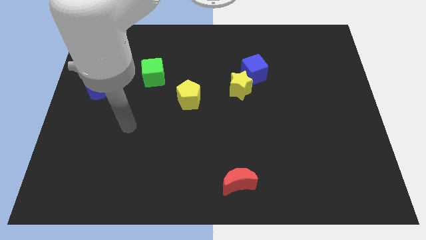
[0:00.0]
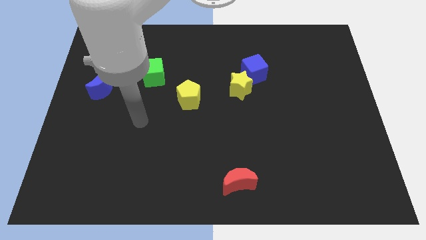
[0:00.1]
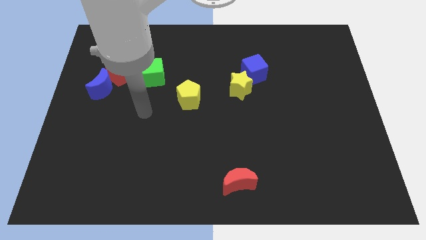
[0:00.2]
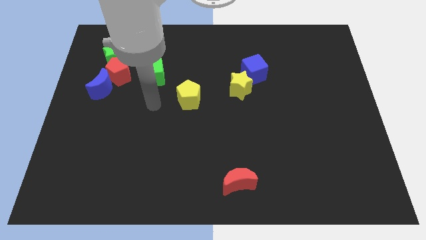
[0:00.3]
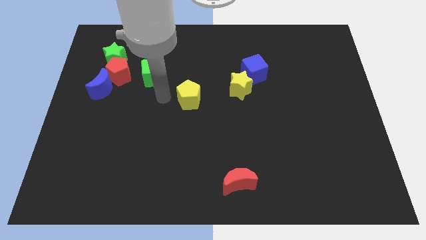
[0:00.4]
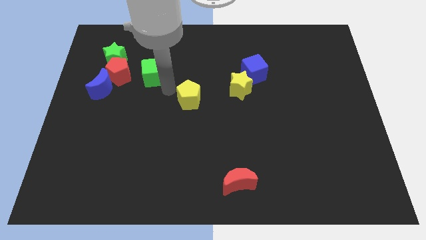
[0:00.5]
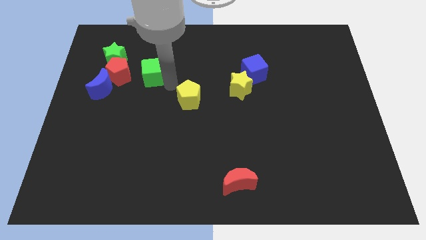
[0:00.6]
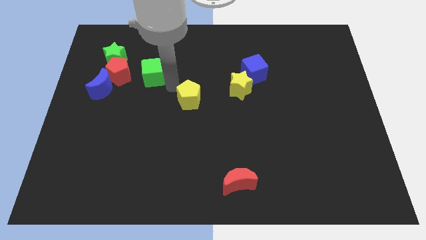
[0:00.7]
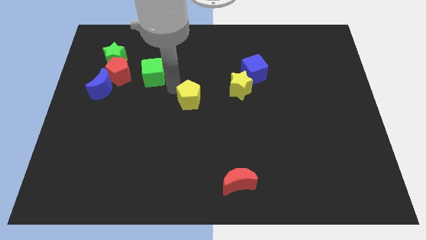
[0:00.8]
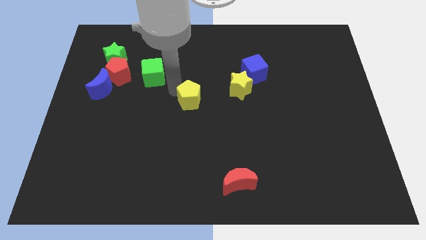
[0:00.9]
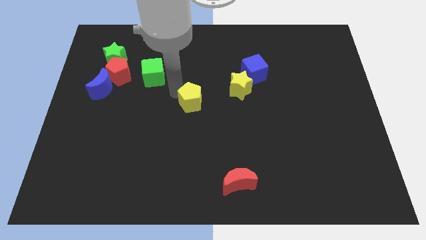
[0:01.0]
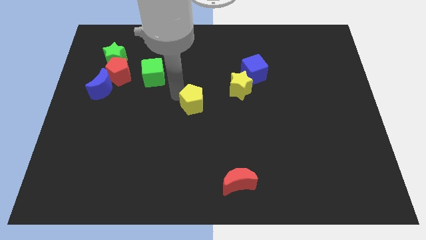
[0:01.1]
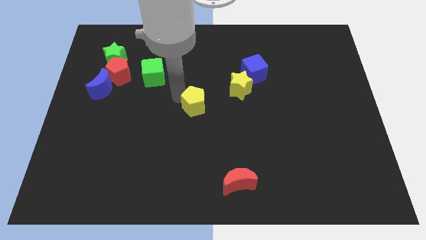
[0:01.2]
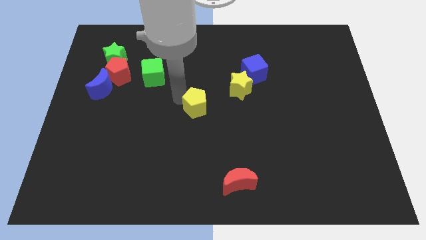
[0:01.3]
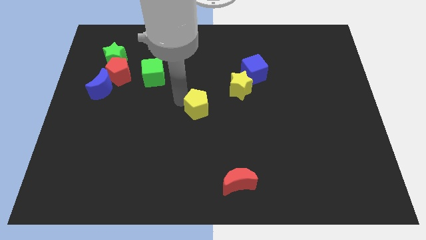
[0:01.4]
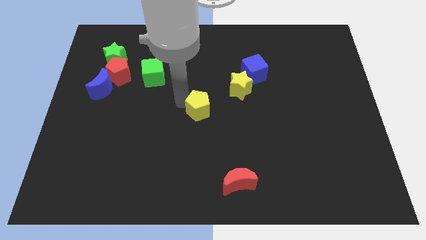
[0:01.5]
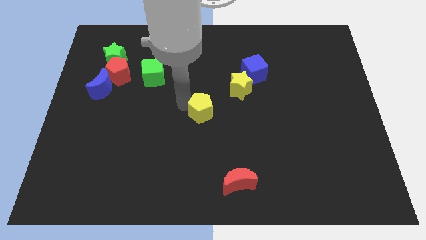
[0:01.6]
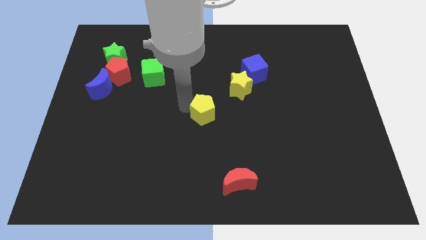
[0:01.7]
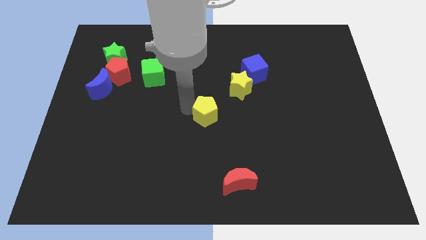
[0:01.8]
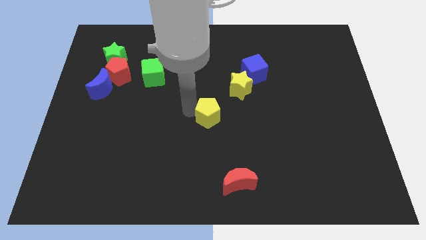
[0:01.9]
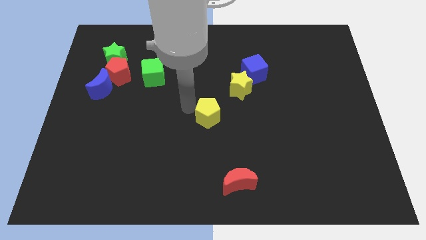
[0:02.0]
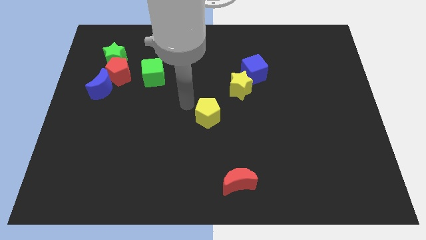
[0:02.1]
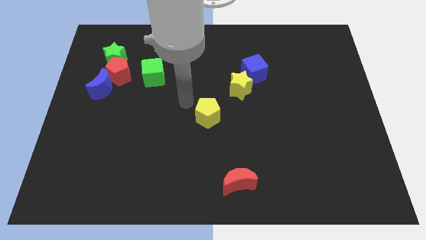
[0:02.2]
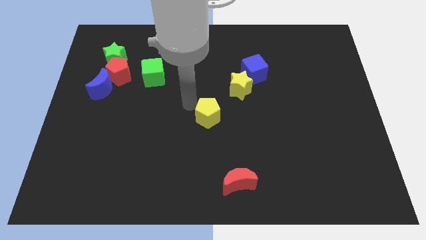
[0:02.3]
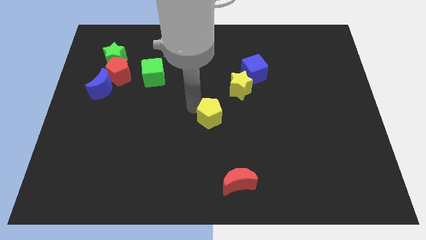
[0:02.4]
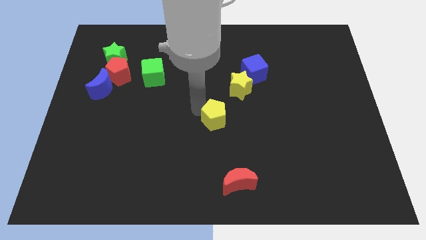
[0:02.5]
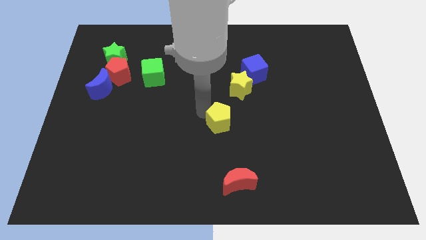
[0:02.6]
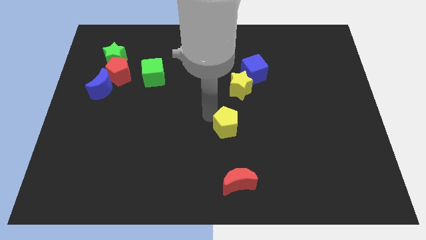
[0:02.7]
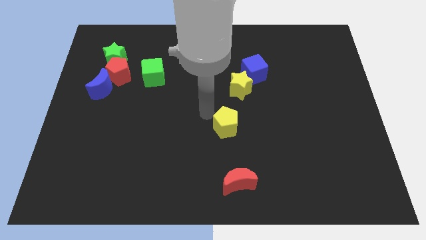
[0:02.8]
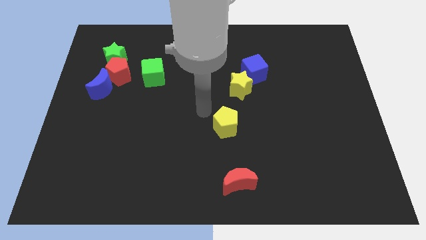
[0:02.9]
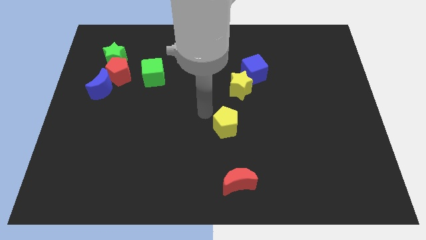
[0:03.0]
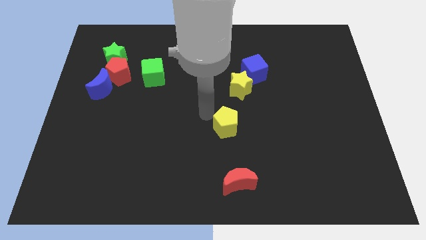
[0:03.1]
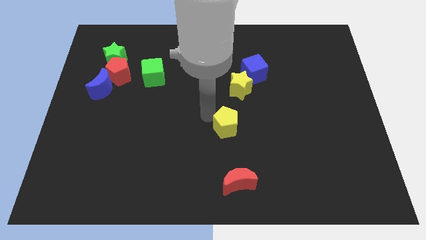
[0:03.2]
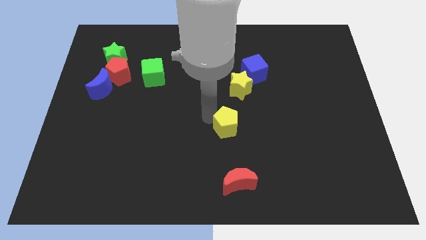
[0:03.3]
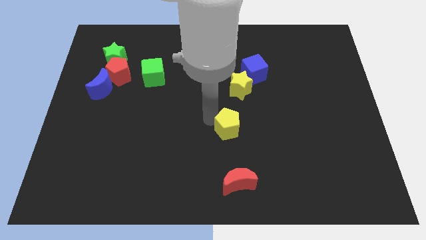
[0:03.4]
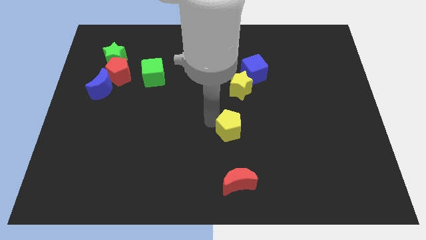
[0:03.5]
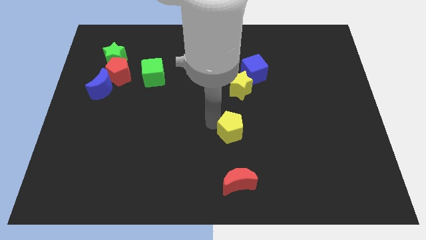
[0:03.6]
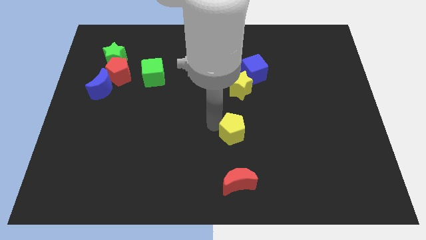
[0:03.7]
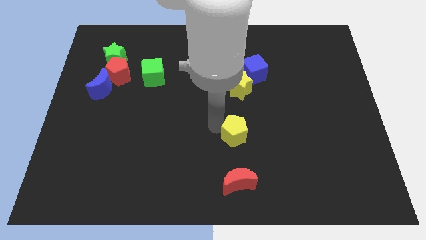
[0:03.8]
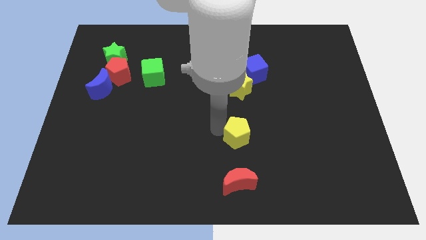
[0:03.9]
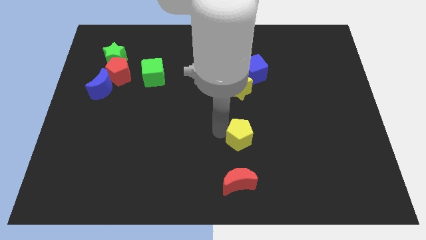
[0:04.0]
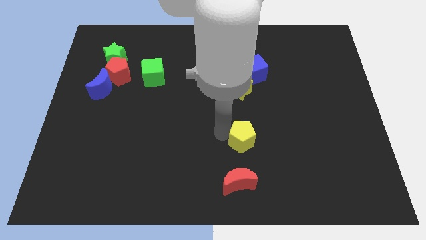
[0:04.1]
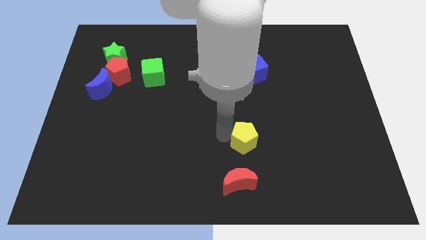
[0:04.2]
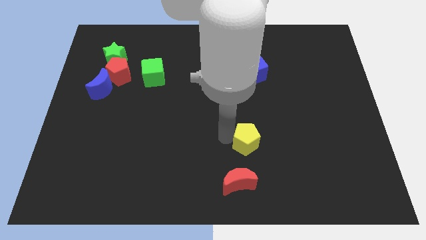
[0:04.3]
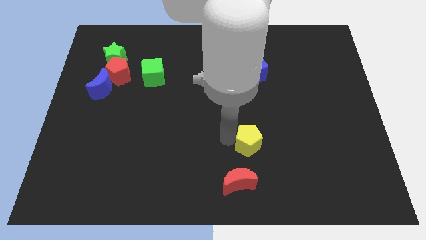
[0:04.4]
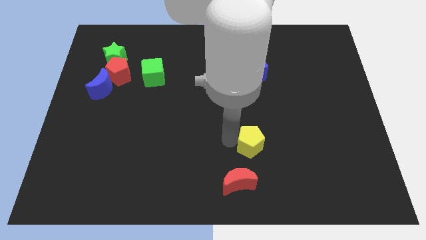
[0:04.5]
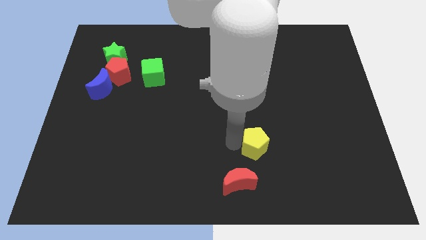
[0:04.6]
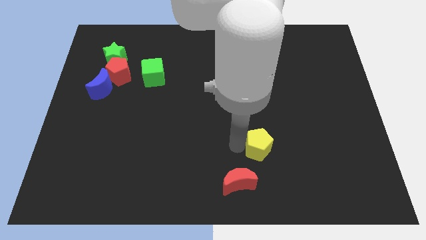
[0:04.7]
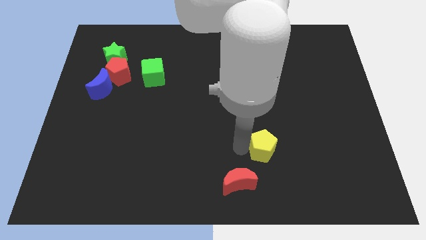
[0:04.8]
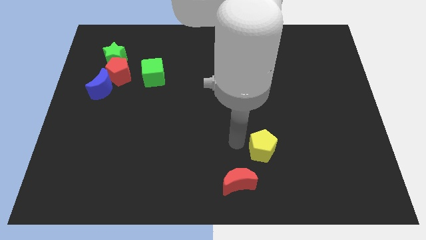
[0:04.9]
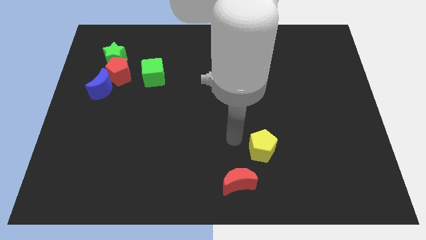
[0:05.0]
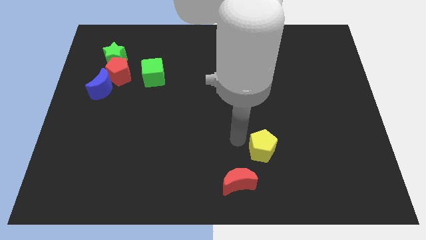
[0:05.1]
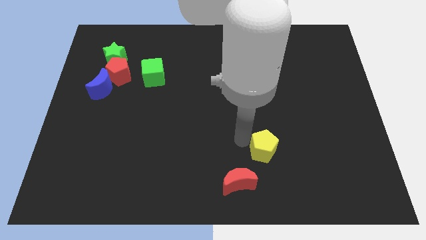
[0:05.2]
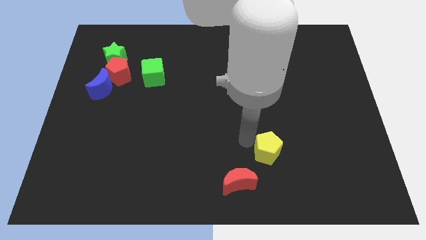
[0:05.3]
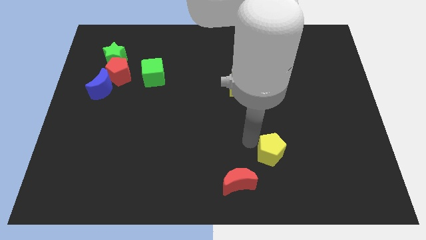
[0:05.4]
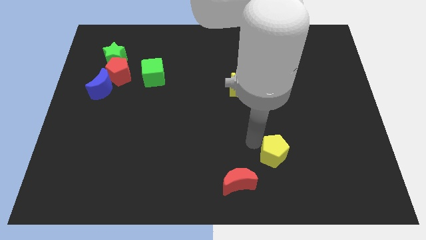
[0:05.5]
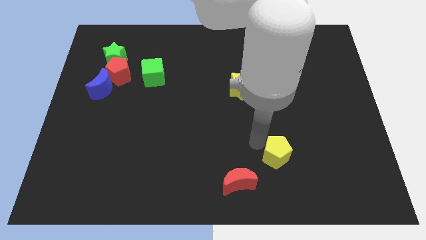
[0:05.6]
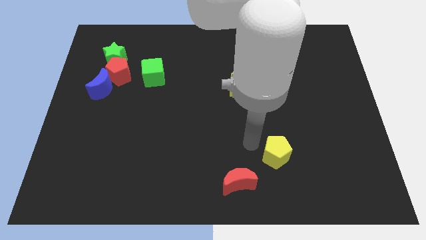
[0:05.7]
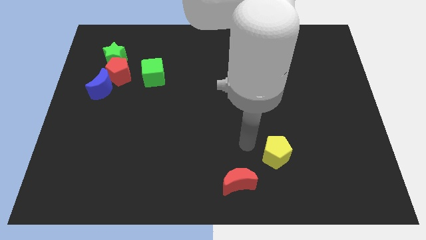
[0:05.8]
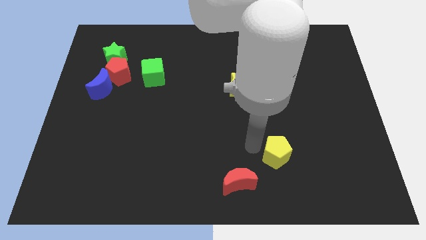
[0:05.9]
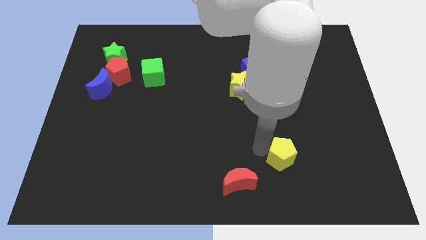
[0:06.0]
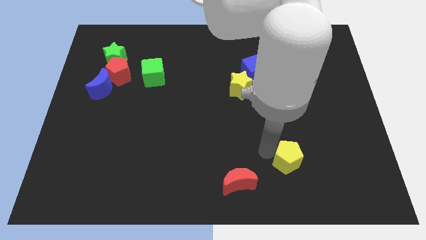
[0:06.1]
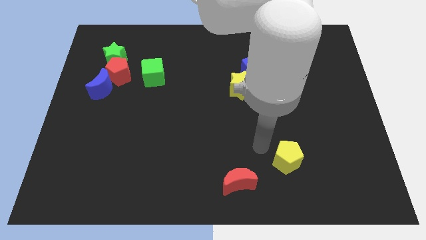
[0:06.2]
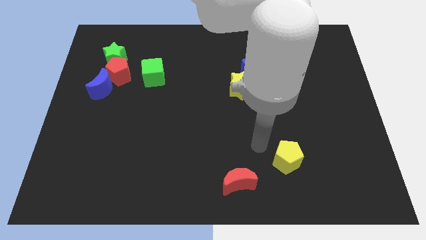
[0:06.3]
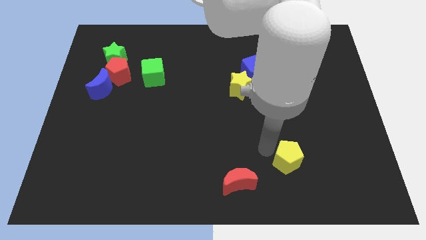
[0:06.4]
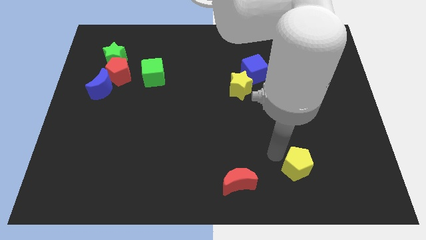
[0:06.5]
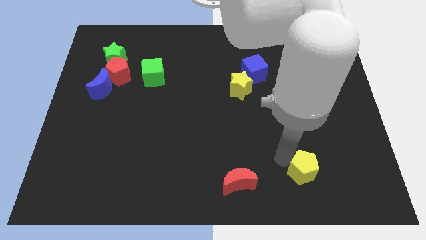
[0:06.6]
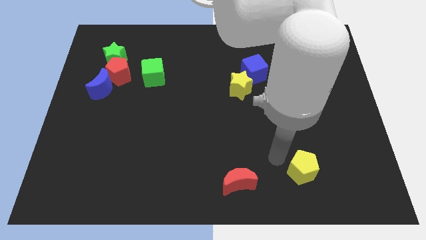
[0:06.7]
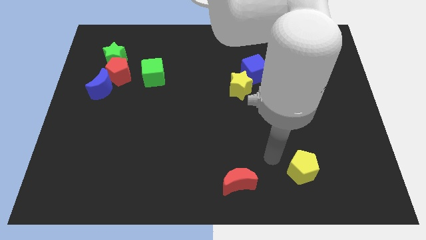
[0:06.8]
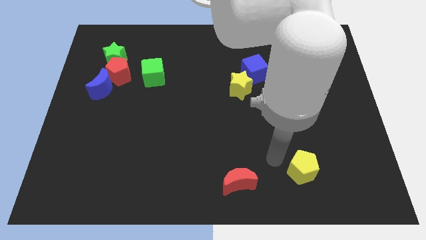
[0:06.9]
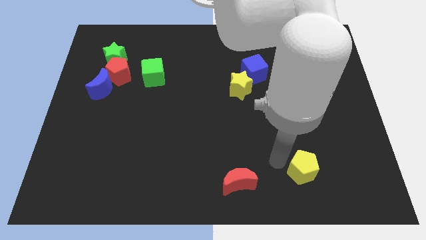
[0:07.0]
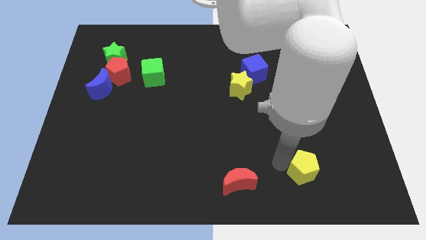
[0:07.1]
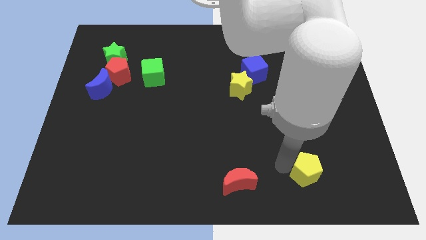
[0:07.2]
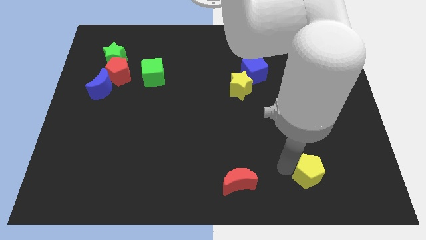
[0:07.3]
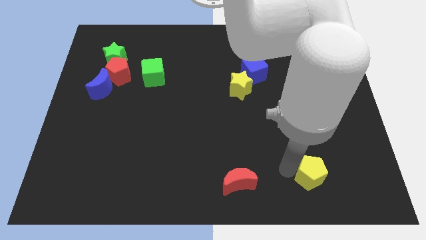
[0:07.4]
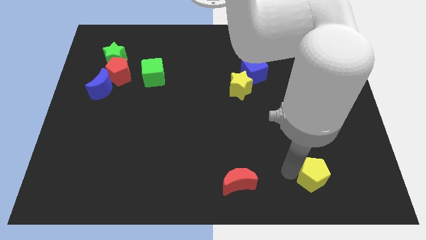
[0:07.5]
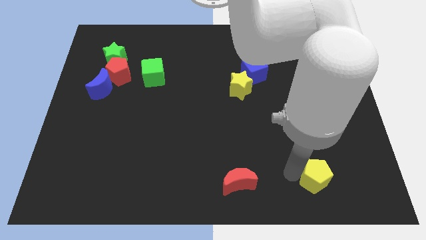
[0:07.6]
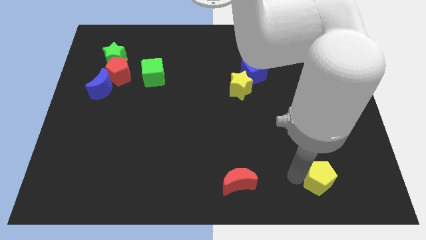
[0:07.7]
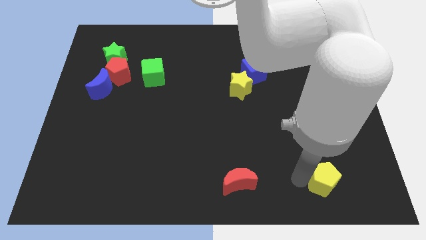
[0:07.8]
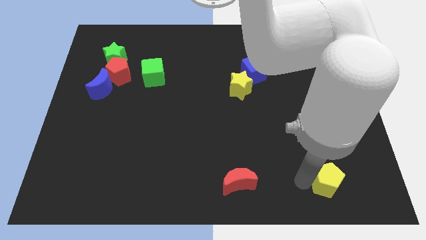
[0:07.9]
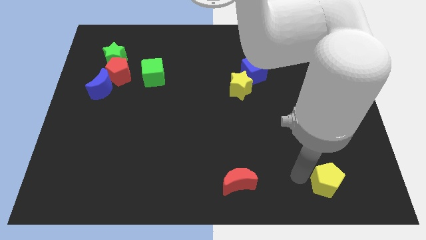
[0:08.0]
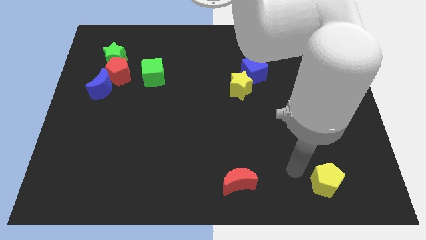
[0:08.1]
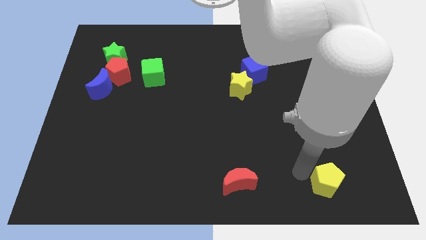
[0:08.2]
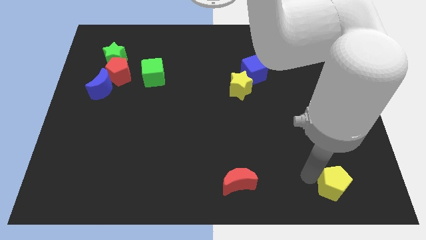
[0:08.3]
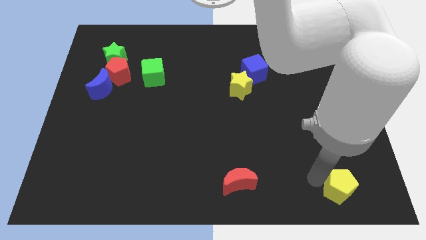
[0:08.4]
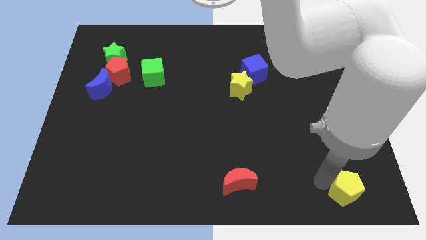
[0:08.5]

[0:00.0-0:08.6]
move the yellow pentagon to the bottom right corner
